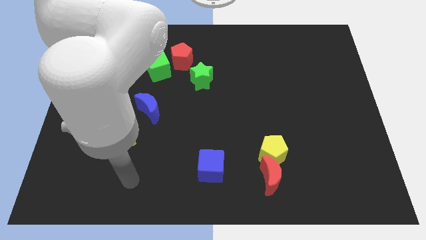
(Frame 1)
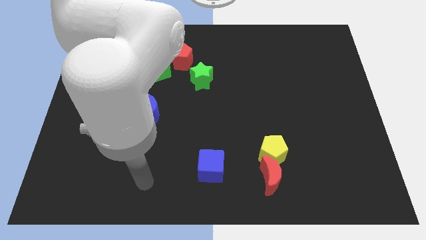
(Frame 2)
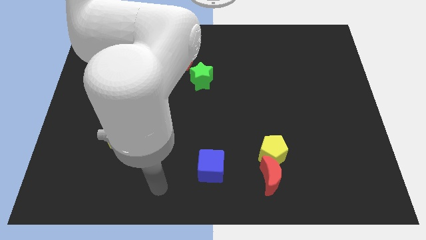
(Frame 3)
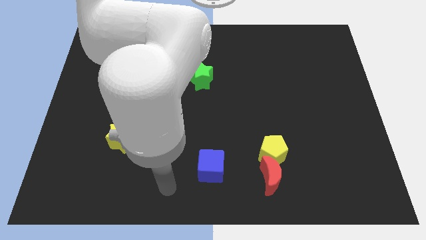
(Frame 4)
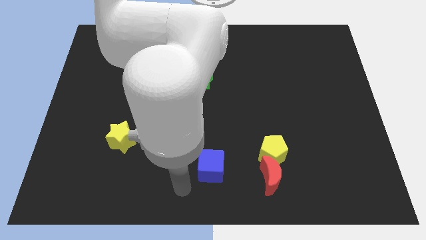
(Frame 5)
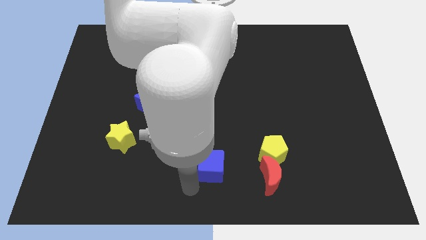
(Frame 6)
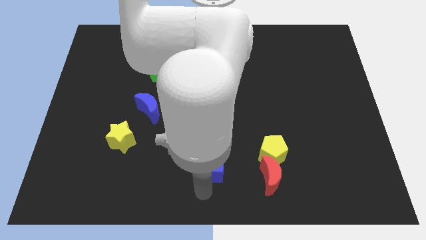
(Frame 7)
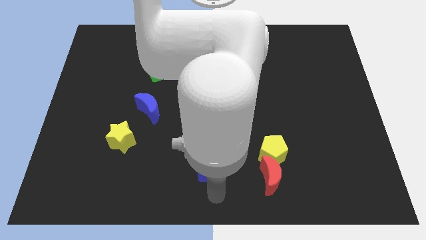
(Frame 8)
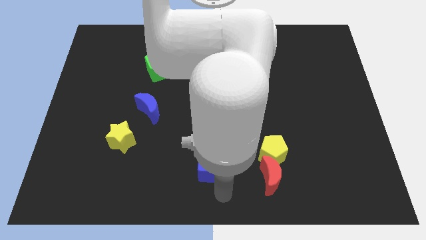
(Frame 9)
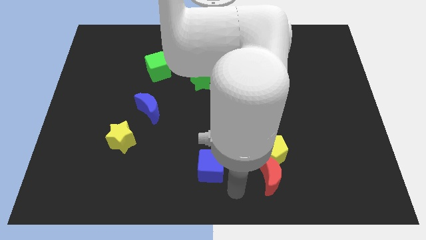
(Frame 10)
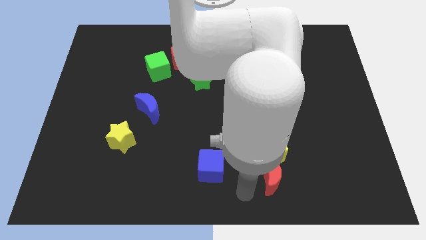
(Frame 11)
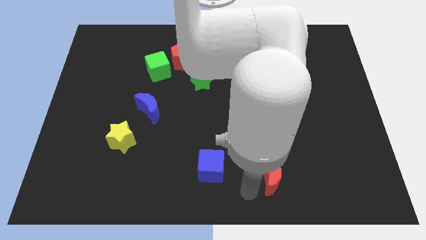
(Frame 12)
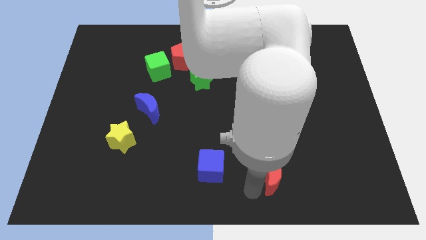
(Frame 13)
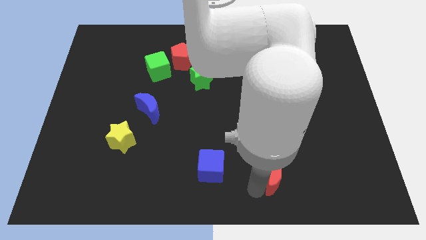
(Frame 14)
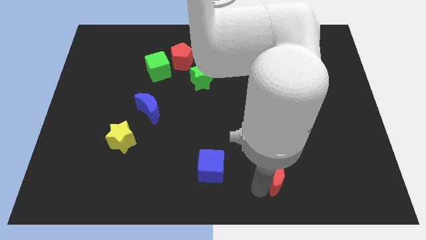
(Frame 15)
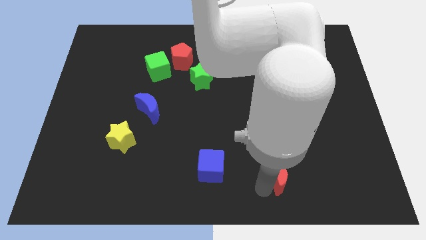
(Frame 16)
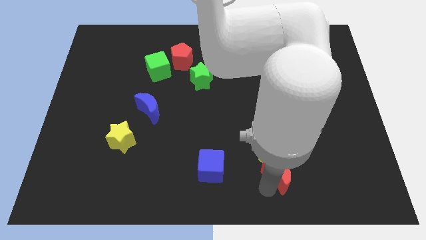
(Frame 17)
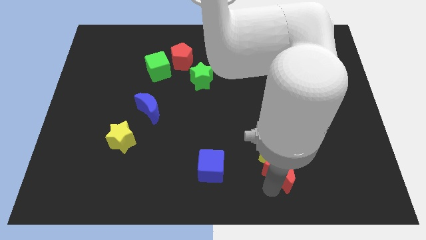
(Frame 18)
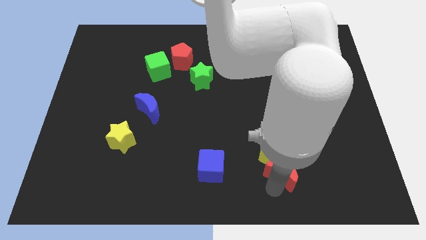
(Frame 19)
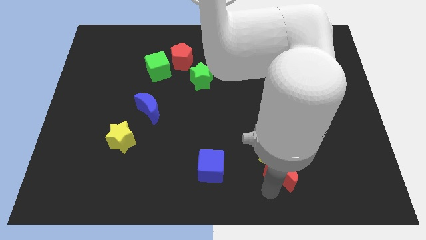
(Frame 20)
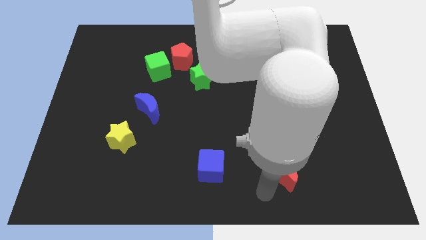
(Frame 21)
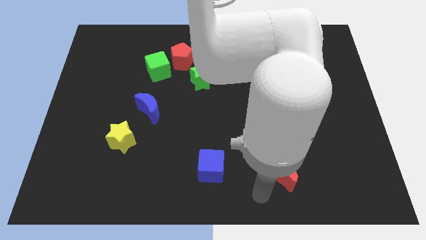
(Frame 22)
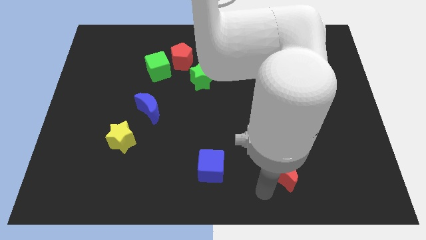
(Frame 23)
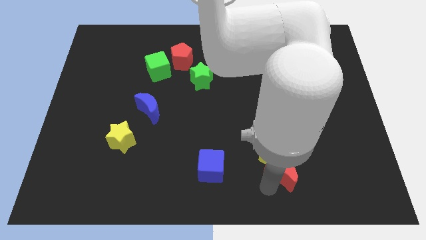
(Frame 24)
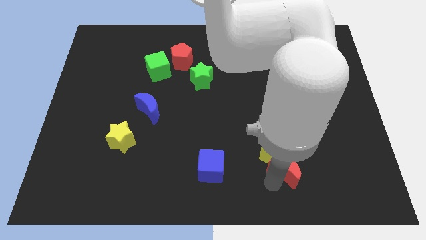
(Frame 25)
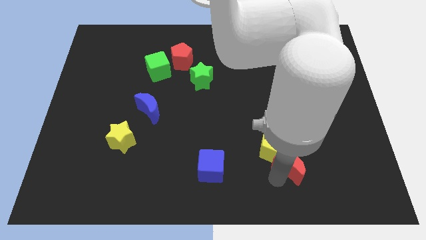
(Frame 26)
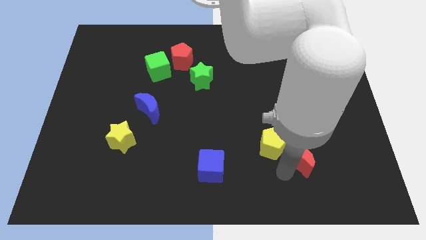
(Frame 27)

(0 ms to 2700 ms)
slide the red moon a little bit upwards and right

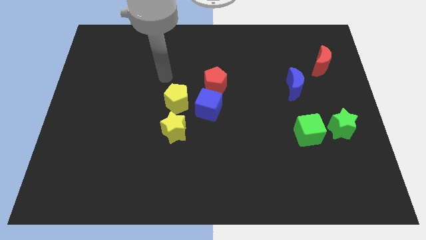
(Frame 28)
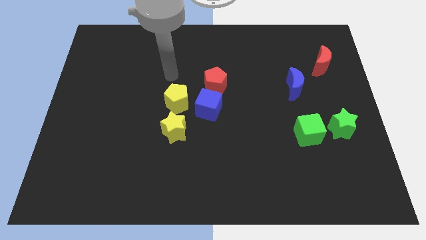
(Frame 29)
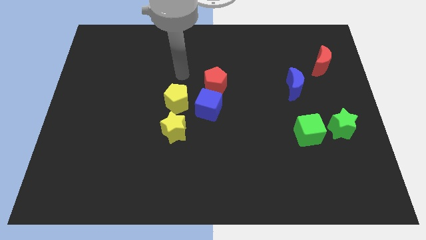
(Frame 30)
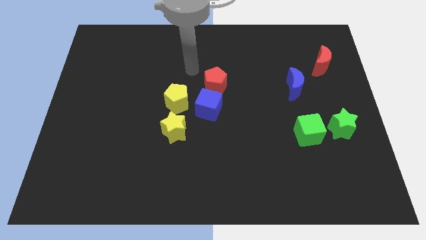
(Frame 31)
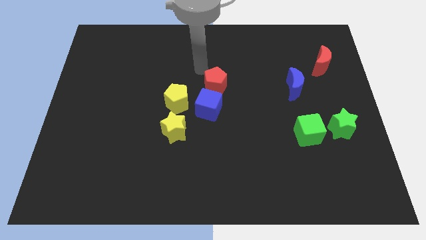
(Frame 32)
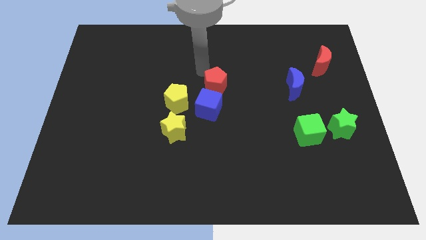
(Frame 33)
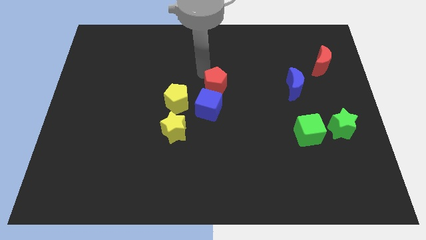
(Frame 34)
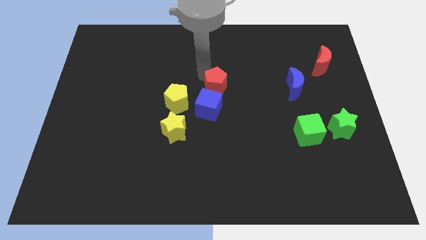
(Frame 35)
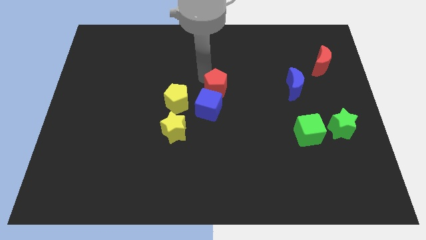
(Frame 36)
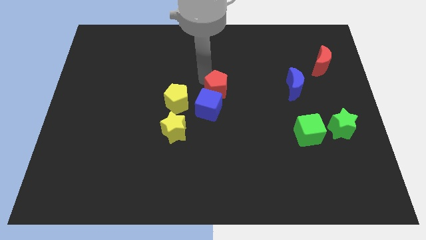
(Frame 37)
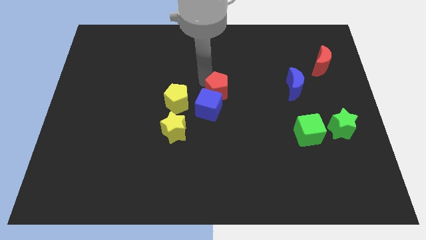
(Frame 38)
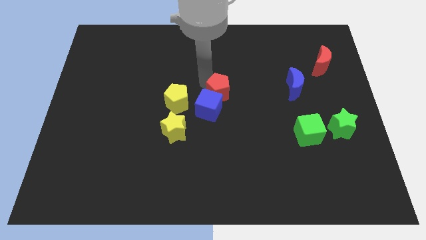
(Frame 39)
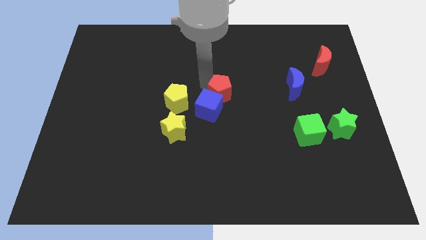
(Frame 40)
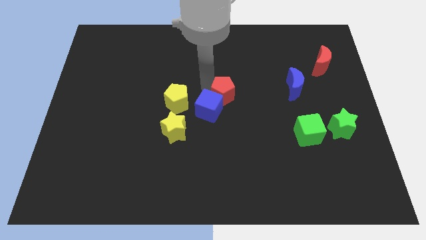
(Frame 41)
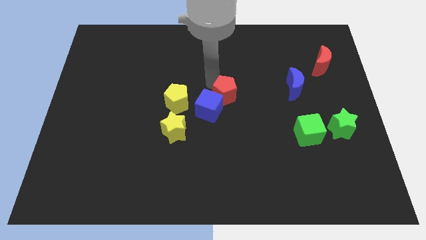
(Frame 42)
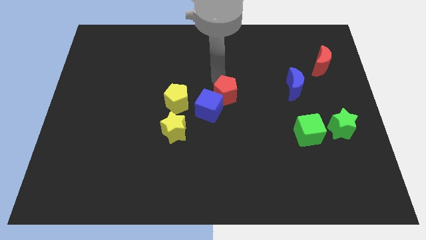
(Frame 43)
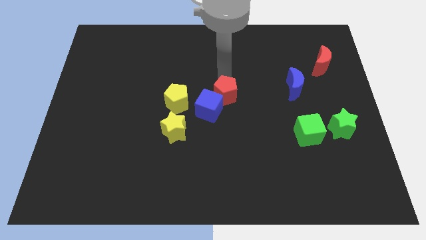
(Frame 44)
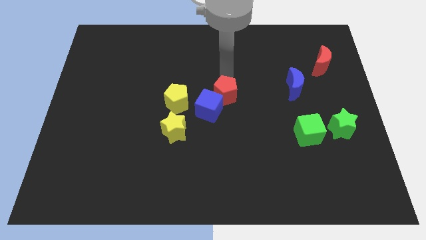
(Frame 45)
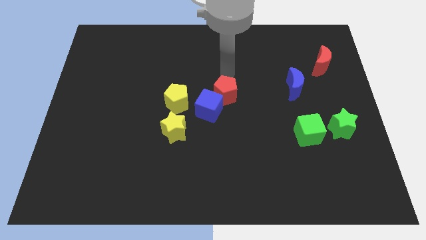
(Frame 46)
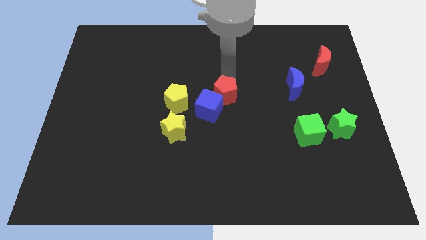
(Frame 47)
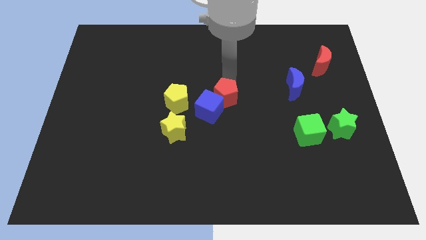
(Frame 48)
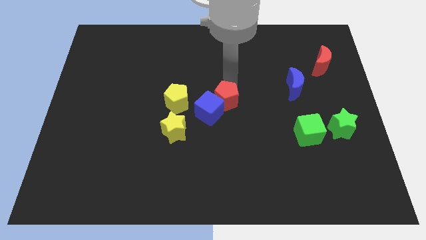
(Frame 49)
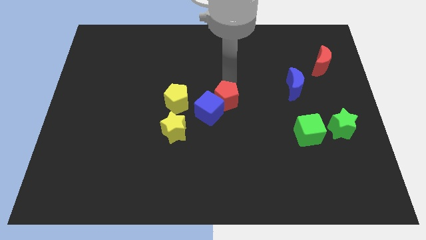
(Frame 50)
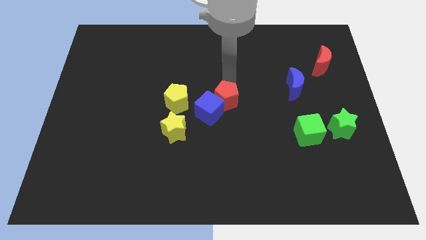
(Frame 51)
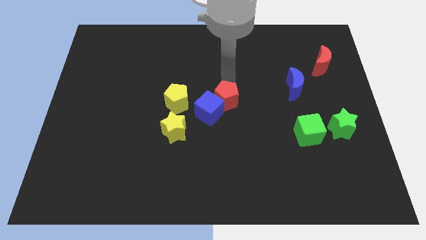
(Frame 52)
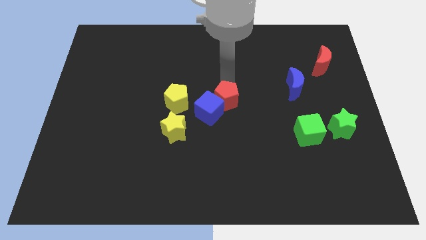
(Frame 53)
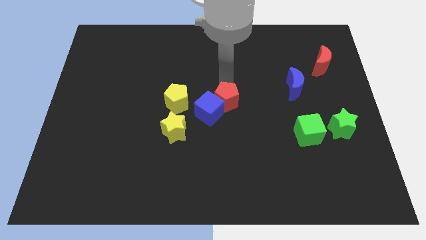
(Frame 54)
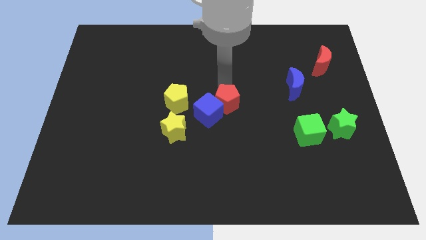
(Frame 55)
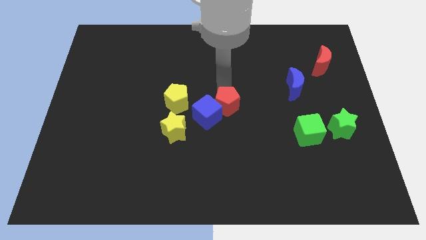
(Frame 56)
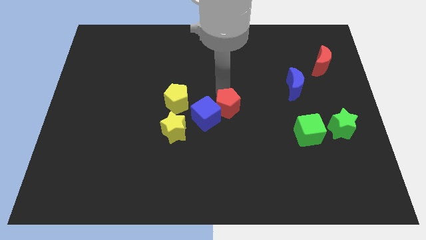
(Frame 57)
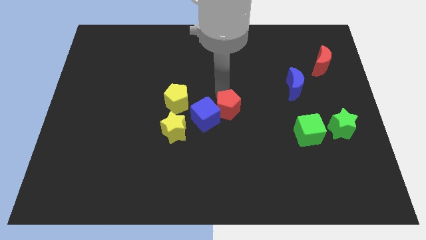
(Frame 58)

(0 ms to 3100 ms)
move the red pentagon somewhat downwards

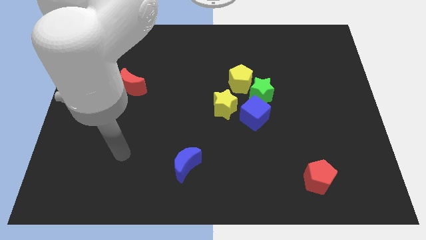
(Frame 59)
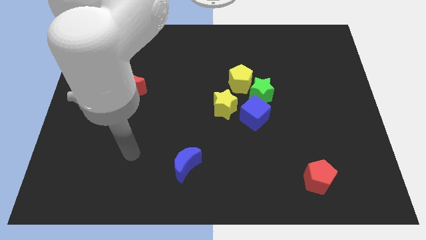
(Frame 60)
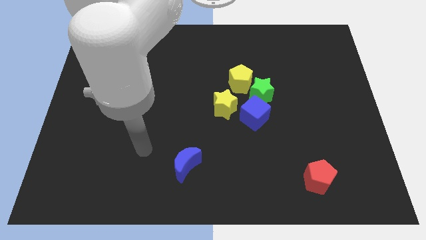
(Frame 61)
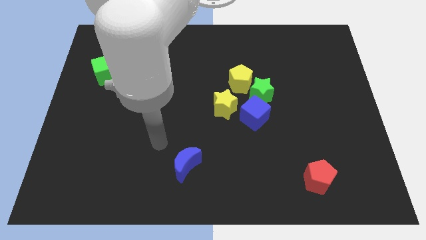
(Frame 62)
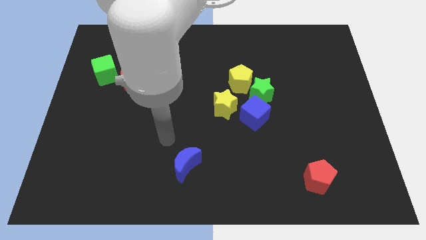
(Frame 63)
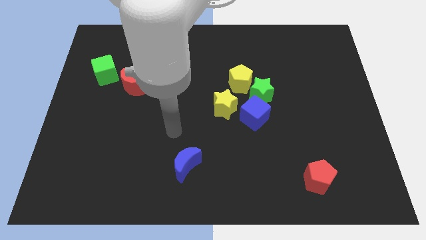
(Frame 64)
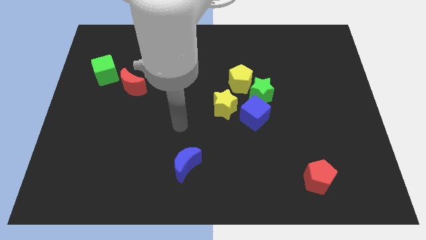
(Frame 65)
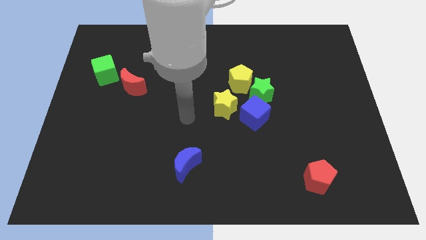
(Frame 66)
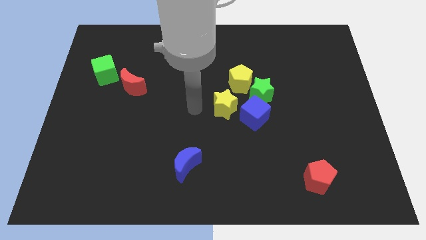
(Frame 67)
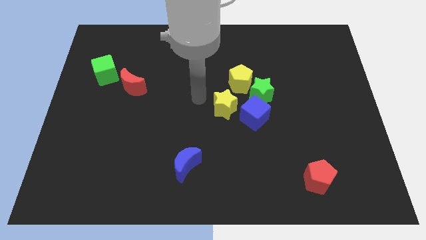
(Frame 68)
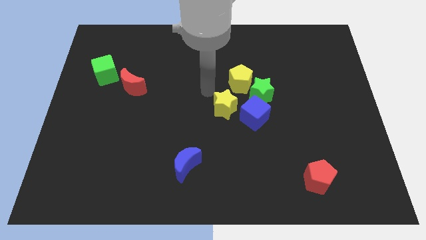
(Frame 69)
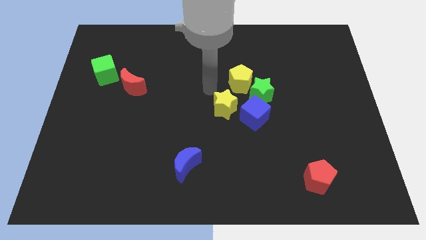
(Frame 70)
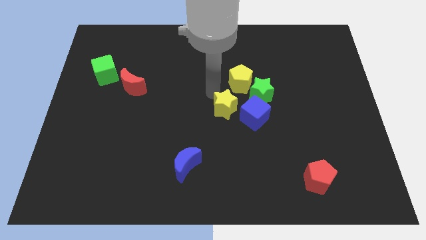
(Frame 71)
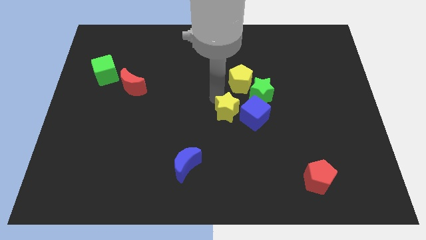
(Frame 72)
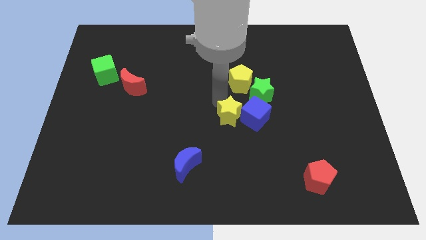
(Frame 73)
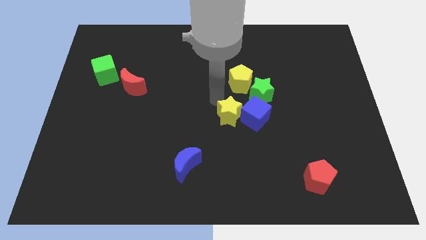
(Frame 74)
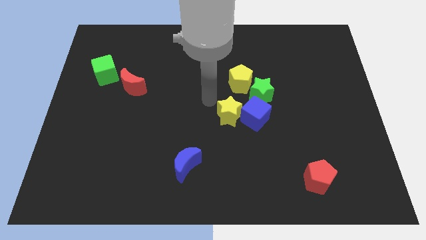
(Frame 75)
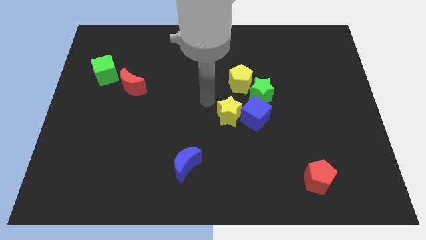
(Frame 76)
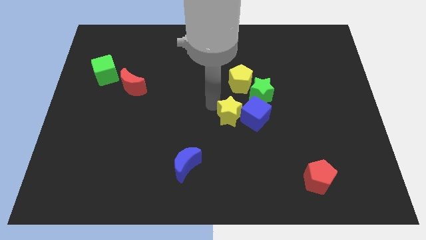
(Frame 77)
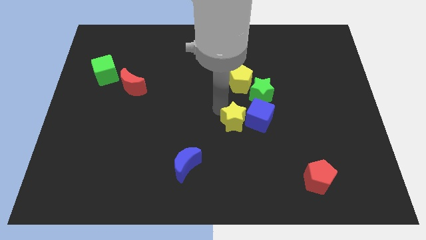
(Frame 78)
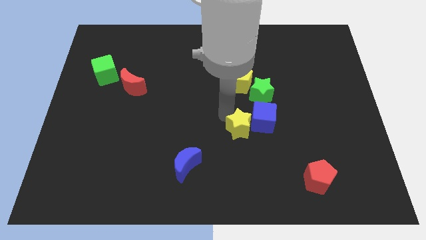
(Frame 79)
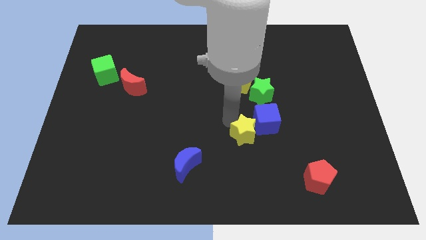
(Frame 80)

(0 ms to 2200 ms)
move the yellow star a bit diagonally downwards and to the right
